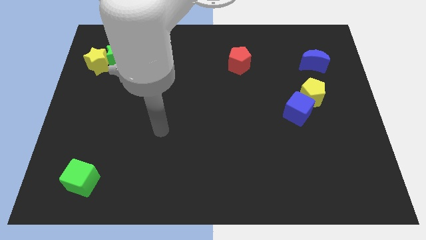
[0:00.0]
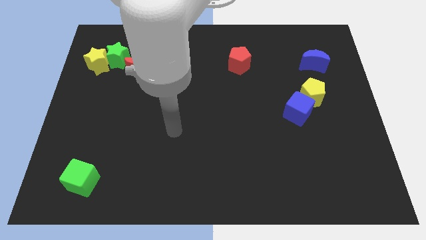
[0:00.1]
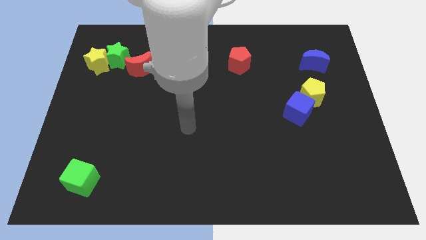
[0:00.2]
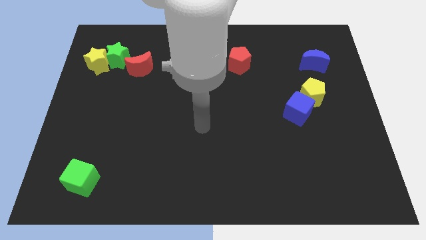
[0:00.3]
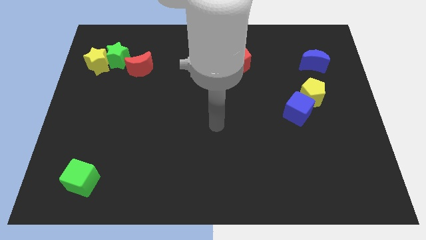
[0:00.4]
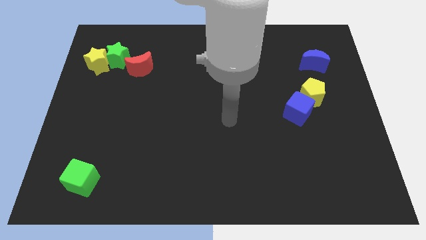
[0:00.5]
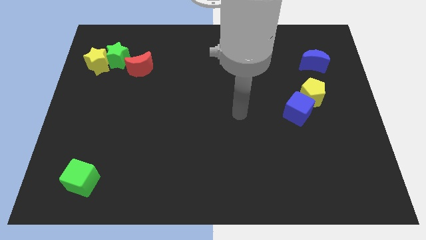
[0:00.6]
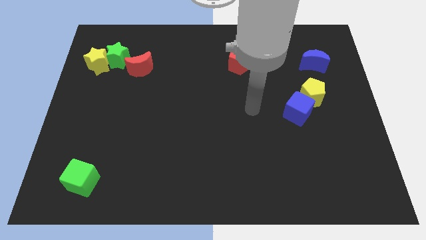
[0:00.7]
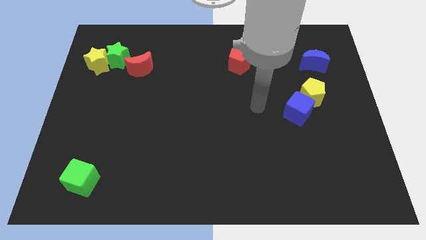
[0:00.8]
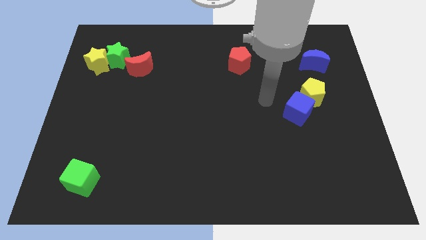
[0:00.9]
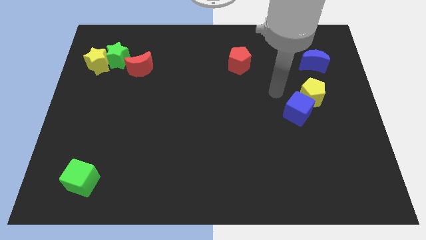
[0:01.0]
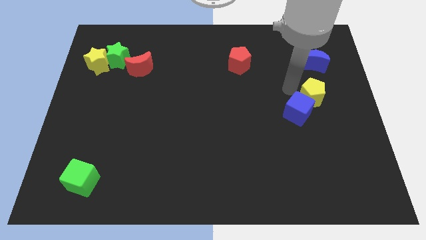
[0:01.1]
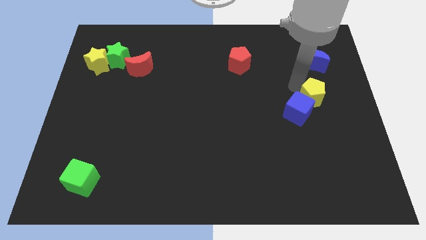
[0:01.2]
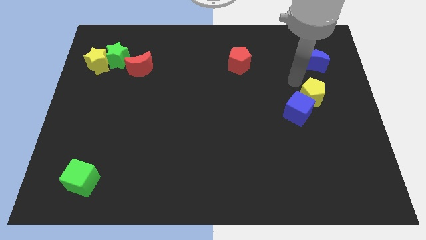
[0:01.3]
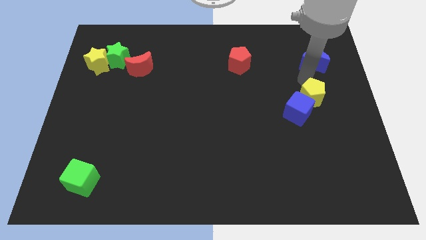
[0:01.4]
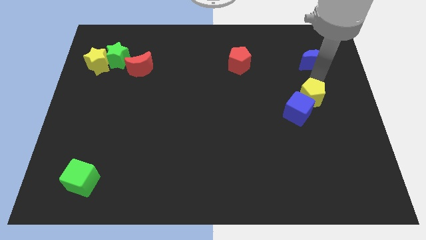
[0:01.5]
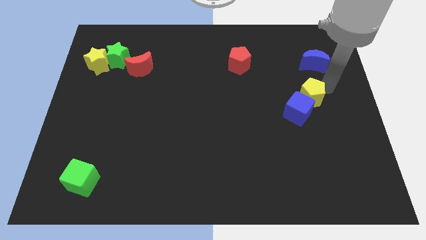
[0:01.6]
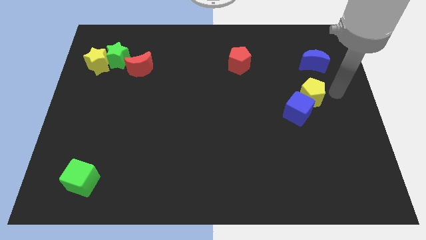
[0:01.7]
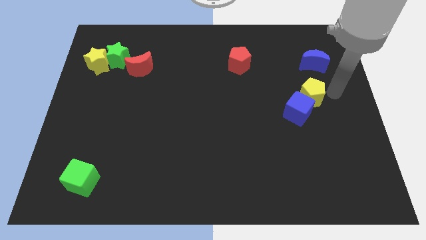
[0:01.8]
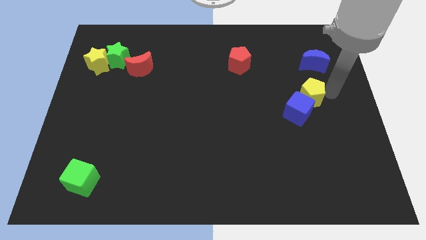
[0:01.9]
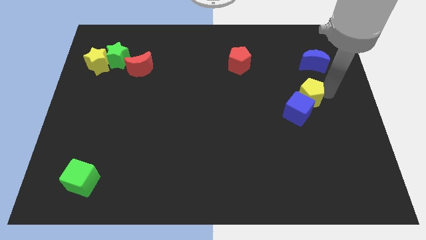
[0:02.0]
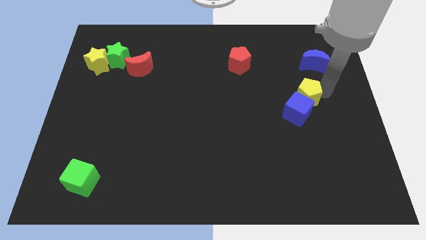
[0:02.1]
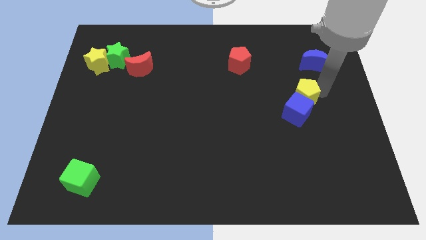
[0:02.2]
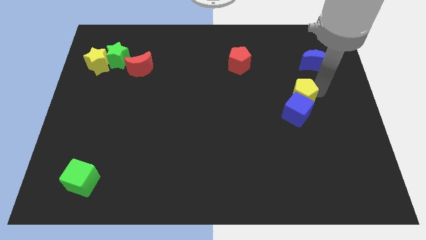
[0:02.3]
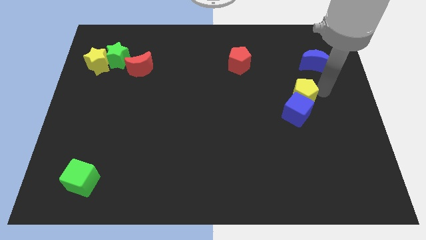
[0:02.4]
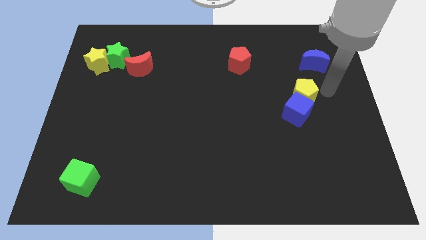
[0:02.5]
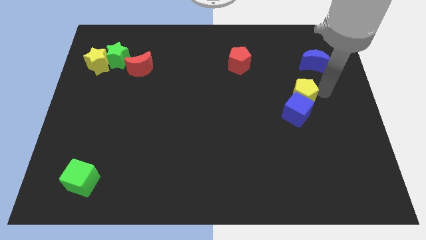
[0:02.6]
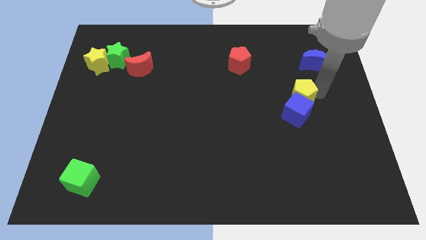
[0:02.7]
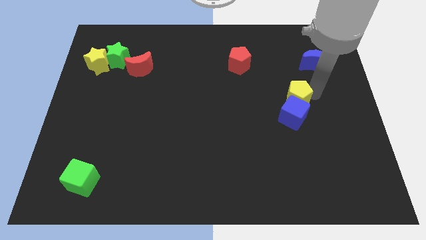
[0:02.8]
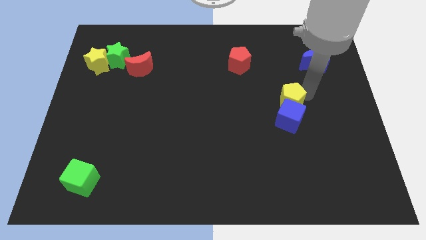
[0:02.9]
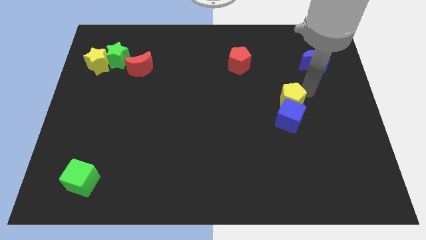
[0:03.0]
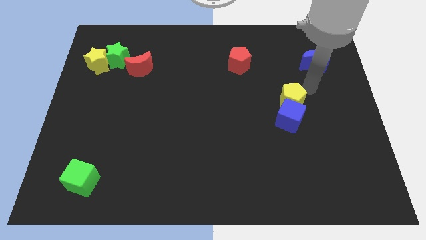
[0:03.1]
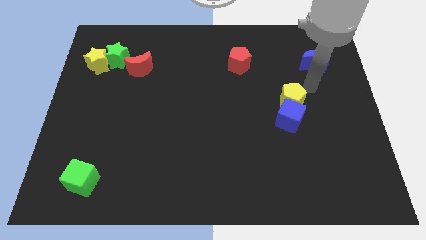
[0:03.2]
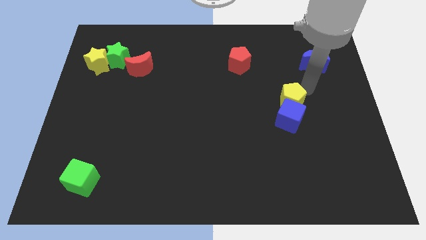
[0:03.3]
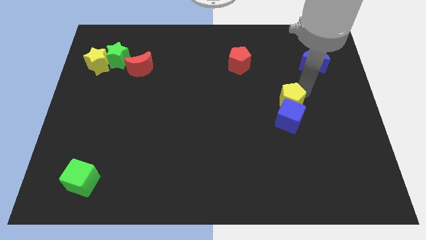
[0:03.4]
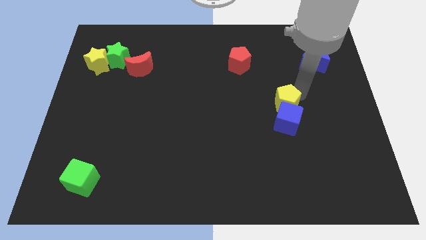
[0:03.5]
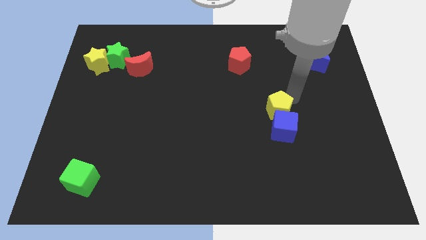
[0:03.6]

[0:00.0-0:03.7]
slightly slide the yellow pentagon down and then to the left

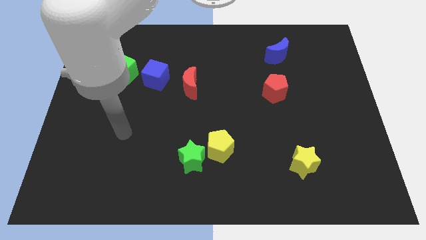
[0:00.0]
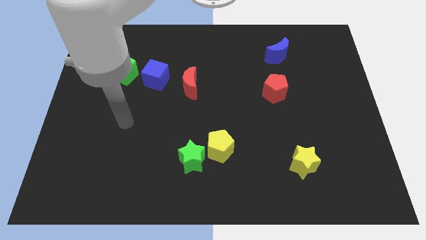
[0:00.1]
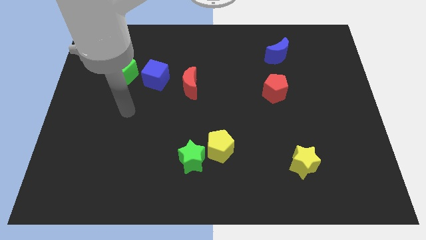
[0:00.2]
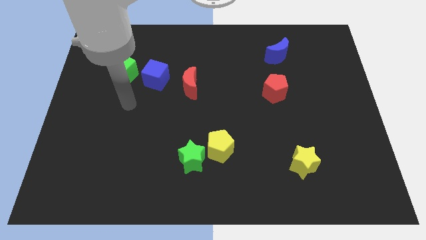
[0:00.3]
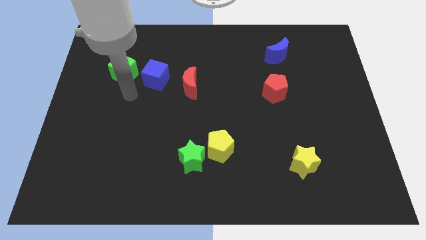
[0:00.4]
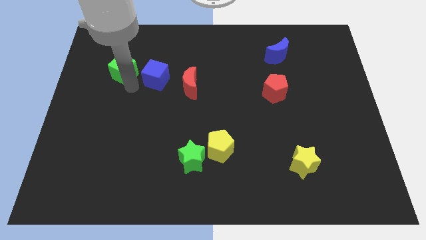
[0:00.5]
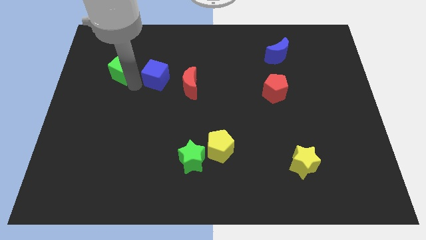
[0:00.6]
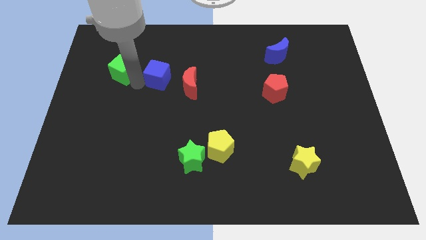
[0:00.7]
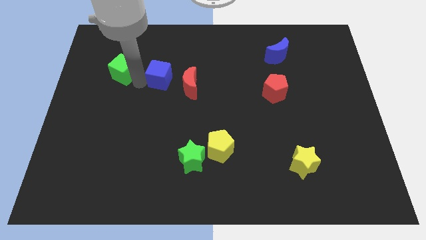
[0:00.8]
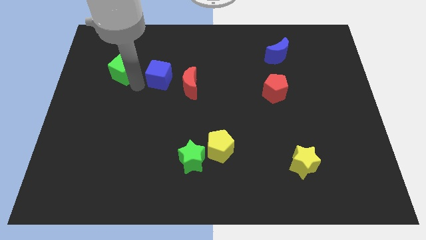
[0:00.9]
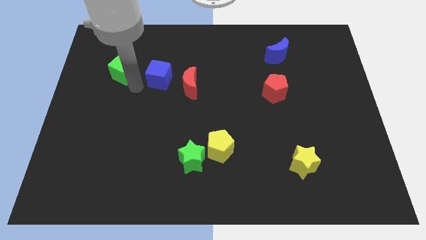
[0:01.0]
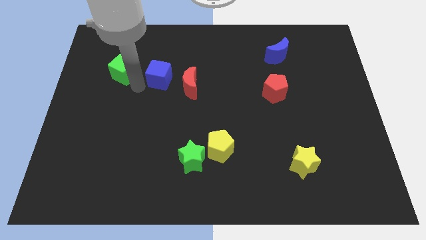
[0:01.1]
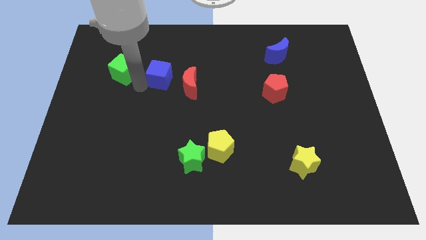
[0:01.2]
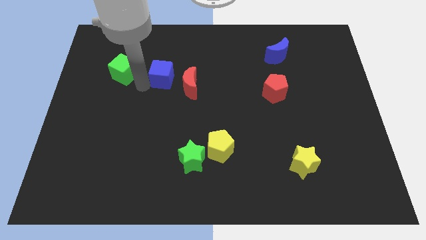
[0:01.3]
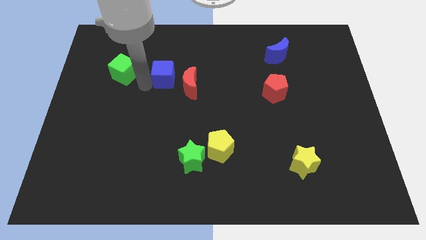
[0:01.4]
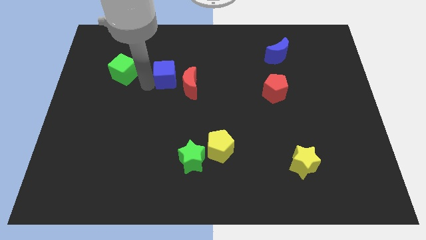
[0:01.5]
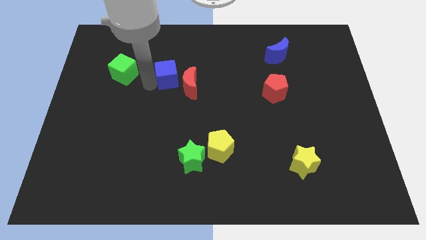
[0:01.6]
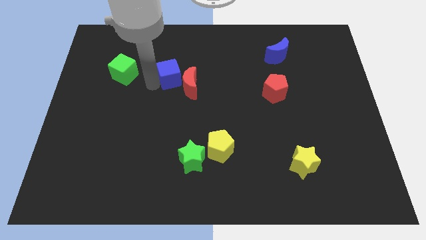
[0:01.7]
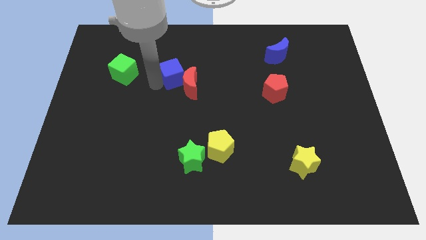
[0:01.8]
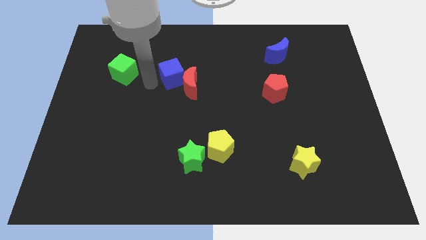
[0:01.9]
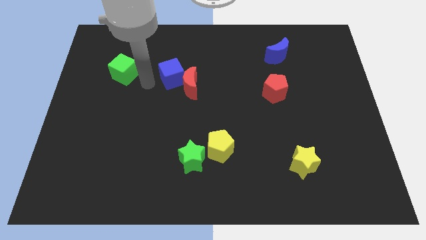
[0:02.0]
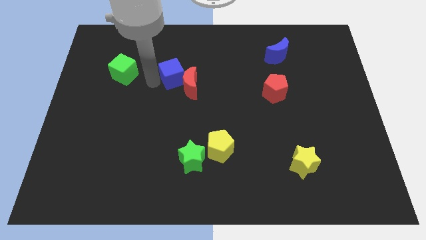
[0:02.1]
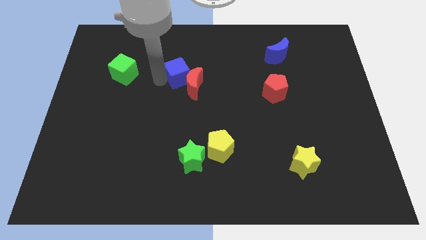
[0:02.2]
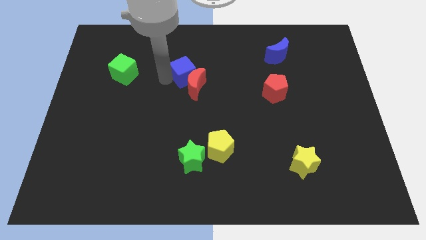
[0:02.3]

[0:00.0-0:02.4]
slightly push the blue cube right

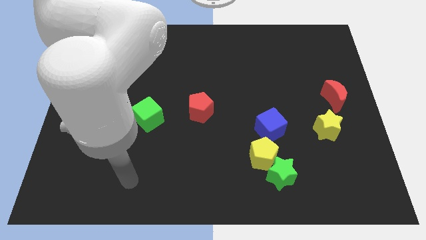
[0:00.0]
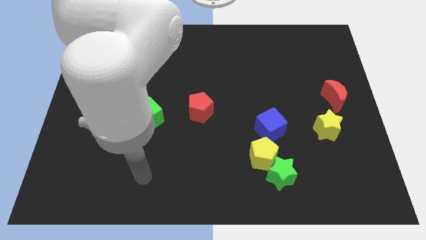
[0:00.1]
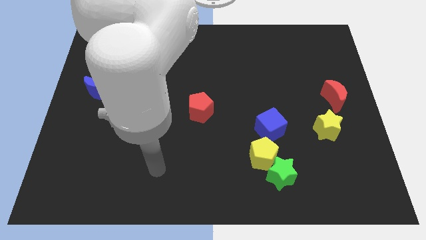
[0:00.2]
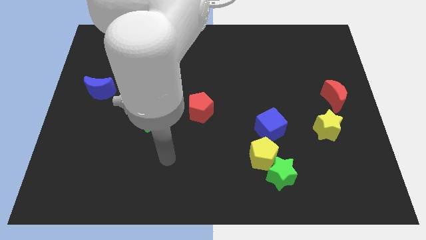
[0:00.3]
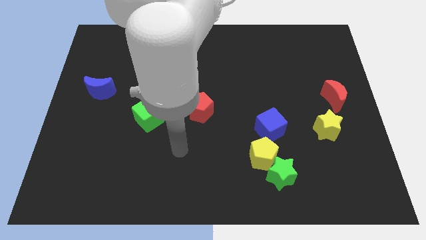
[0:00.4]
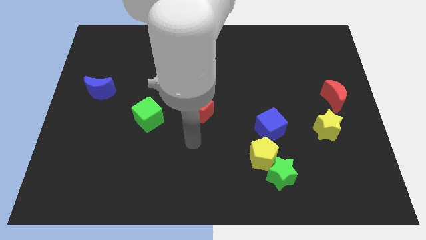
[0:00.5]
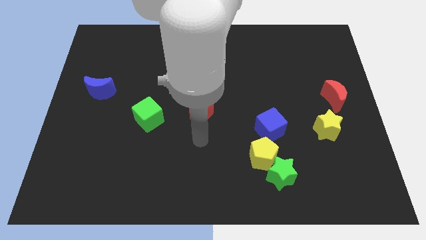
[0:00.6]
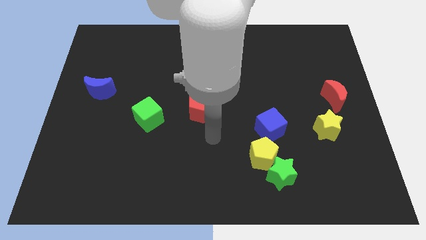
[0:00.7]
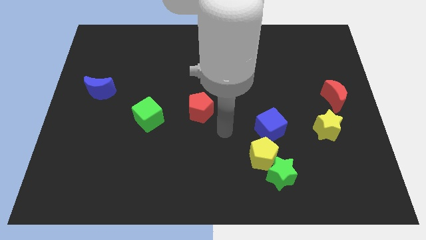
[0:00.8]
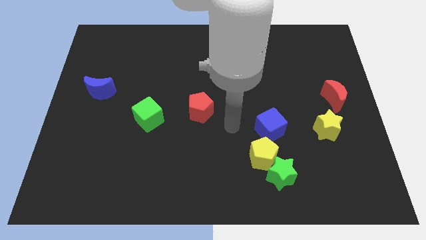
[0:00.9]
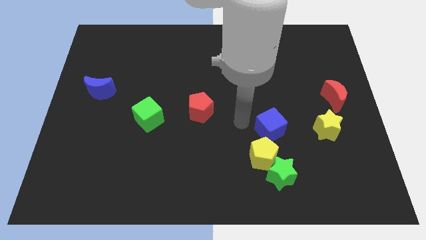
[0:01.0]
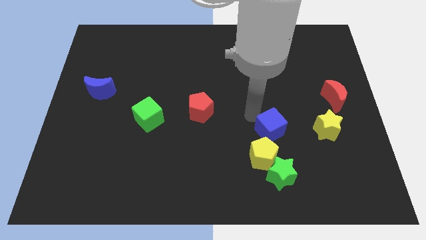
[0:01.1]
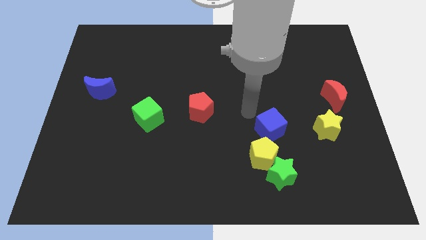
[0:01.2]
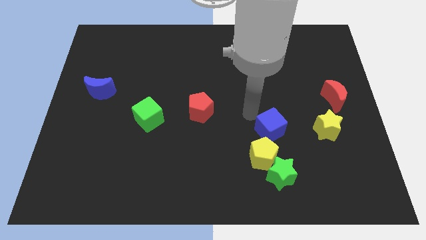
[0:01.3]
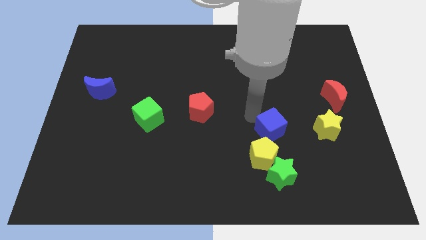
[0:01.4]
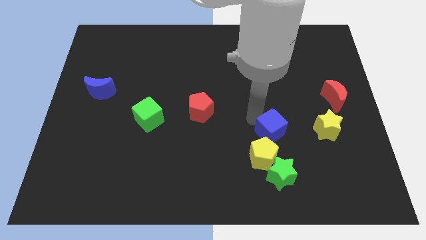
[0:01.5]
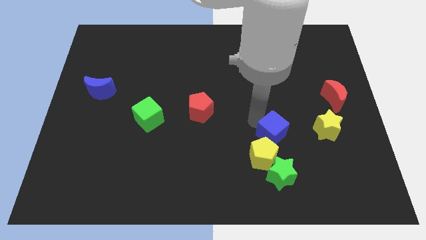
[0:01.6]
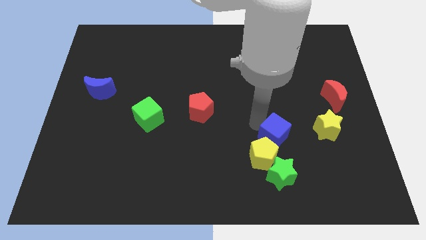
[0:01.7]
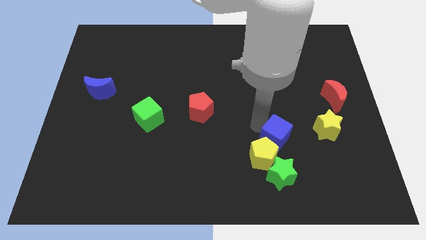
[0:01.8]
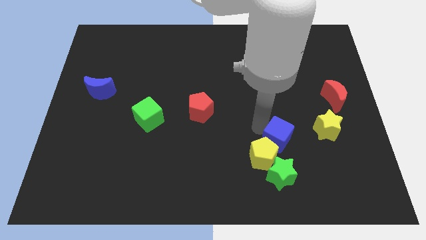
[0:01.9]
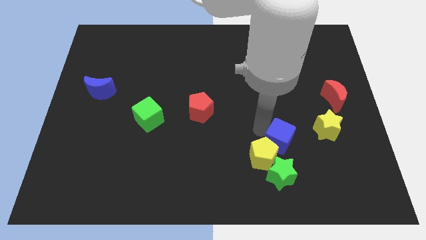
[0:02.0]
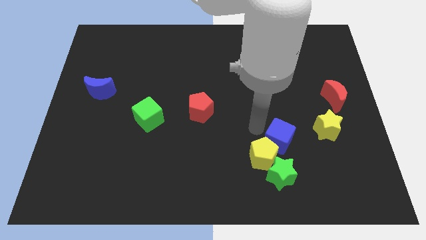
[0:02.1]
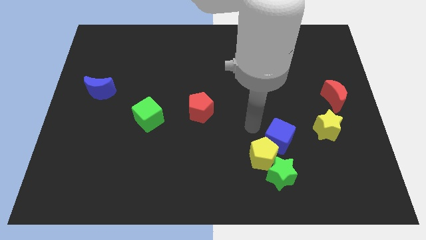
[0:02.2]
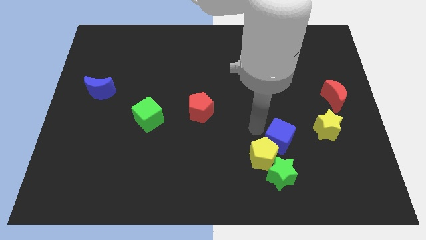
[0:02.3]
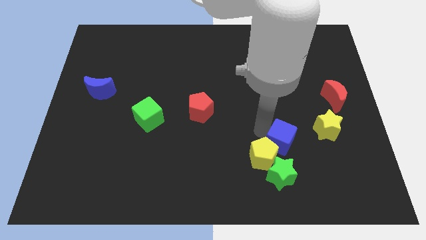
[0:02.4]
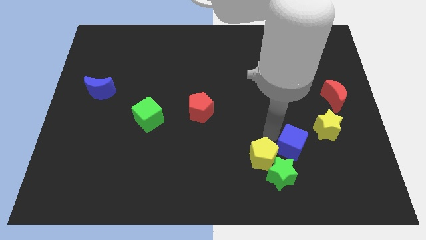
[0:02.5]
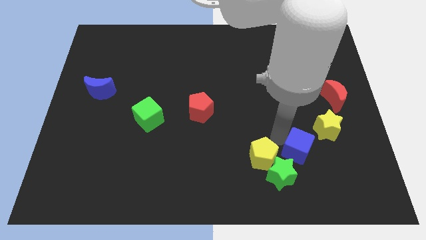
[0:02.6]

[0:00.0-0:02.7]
slightly slide the blue cube down and to the right
